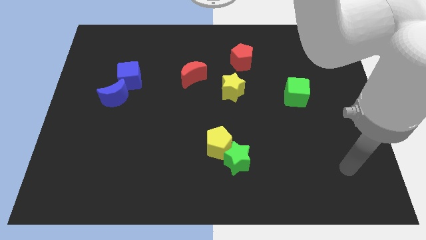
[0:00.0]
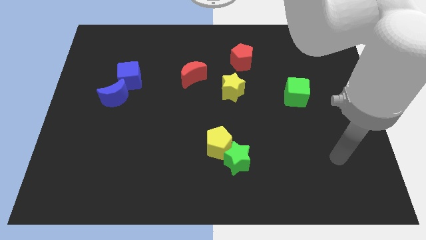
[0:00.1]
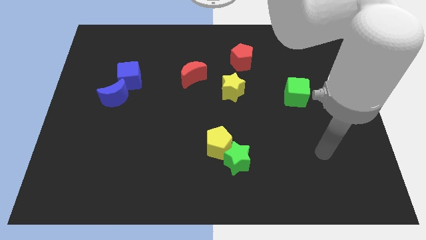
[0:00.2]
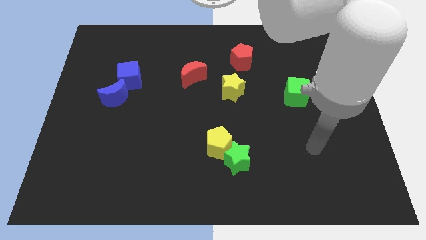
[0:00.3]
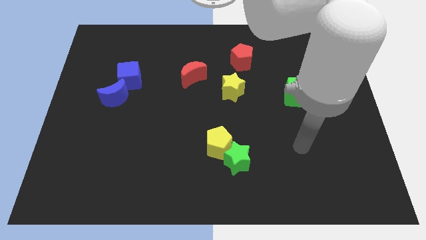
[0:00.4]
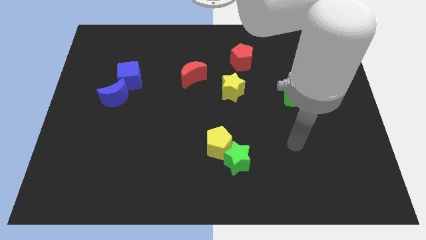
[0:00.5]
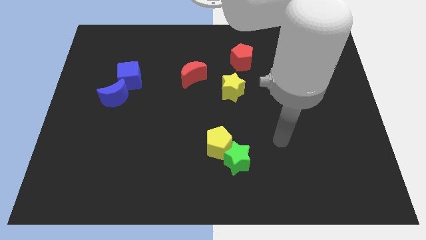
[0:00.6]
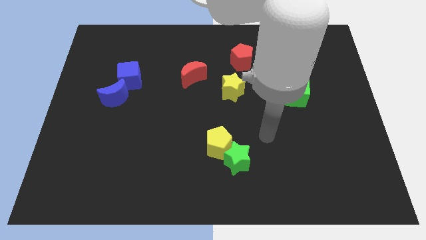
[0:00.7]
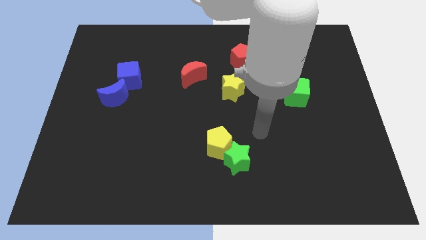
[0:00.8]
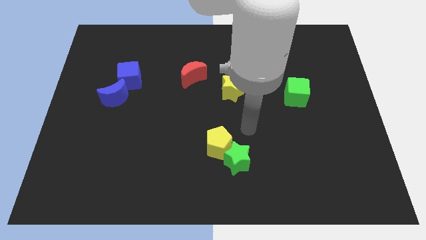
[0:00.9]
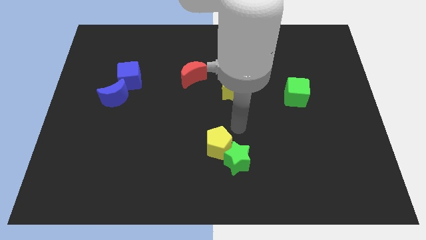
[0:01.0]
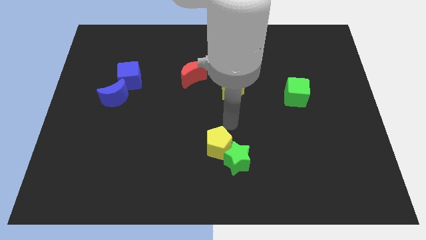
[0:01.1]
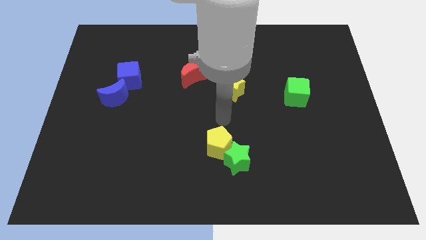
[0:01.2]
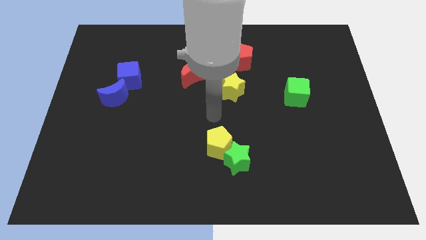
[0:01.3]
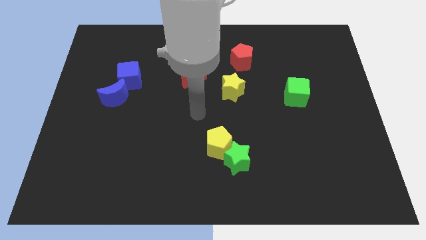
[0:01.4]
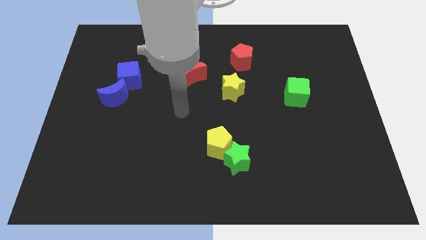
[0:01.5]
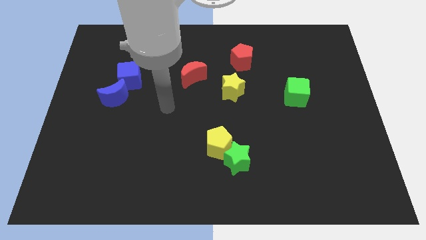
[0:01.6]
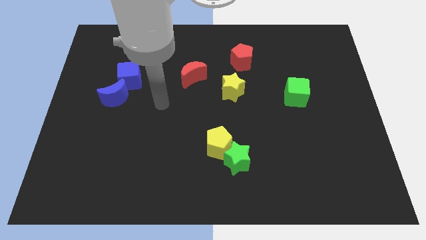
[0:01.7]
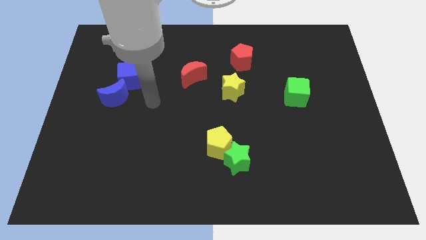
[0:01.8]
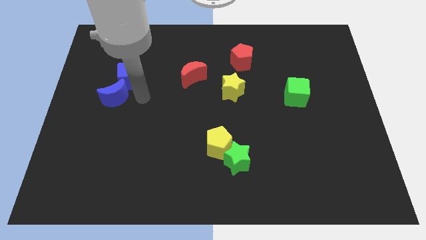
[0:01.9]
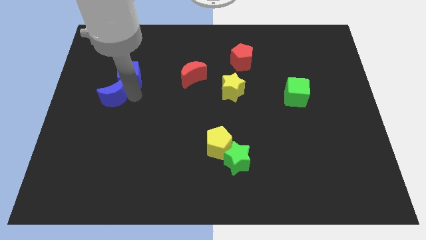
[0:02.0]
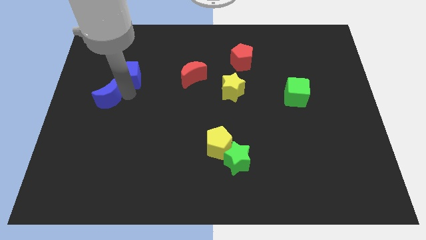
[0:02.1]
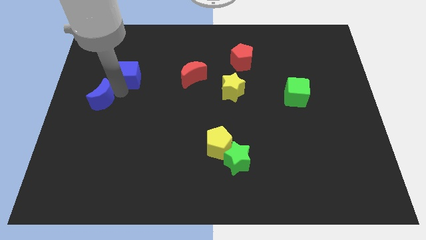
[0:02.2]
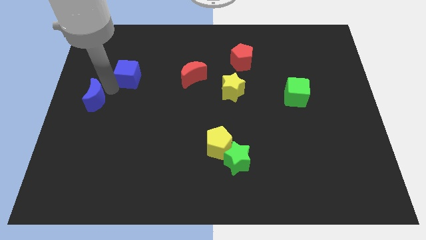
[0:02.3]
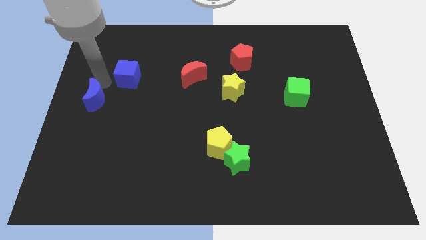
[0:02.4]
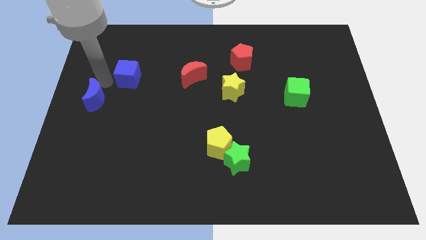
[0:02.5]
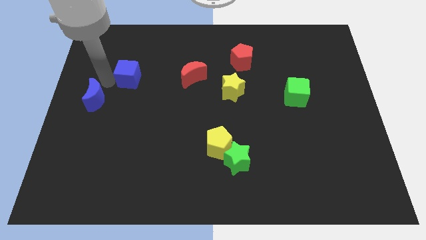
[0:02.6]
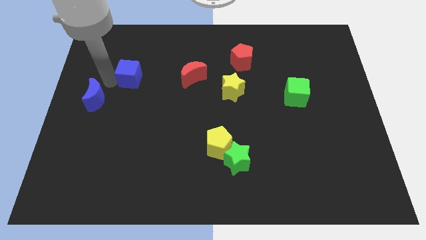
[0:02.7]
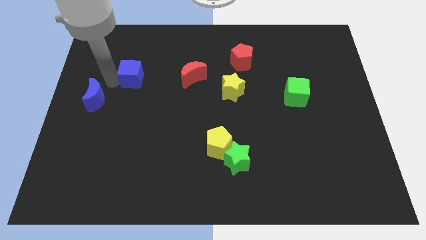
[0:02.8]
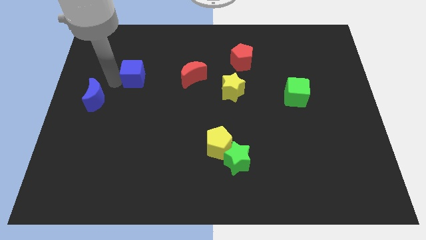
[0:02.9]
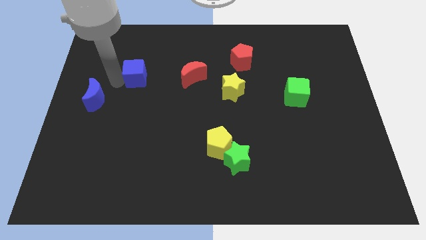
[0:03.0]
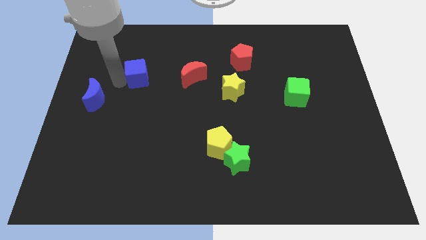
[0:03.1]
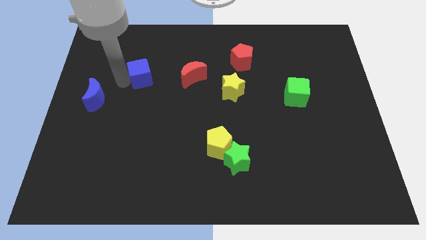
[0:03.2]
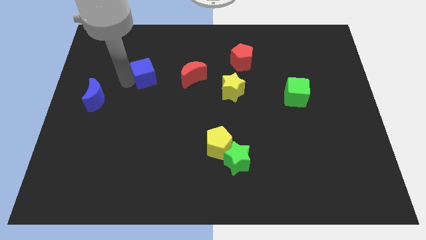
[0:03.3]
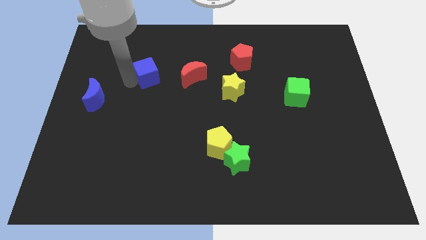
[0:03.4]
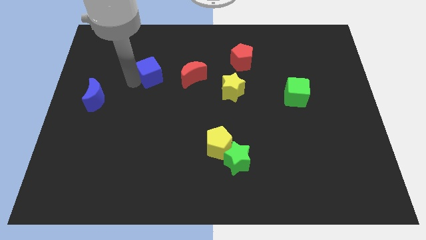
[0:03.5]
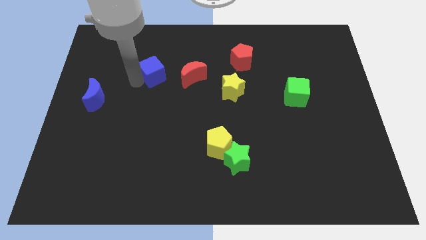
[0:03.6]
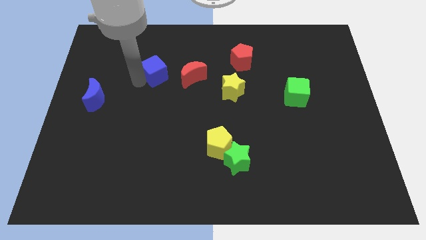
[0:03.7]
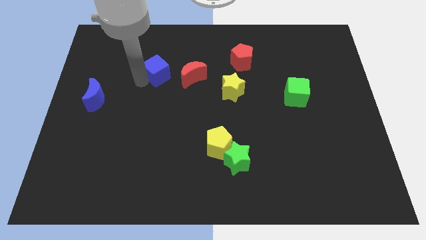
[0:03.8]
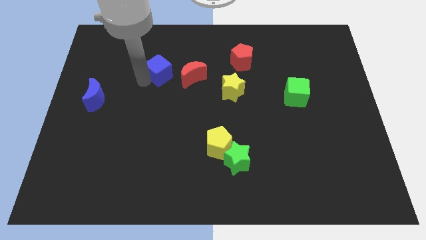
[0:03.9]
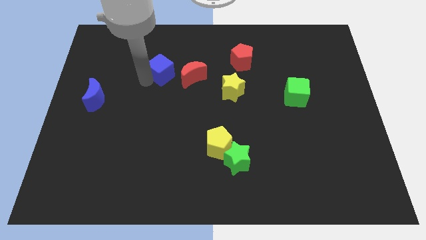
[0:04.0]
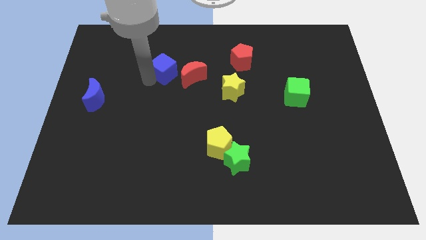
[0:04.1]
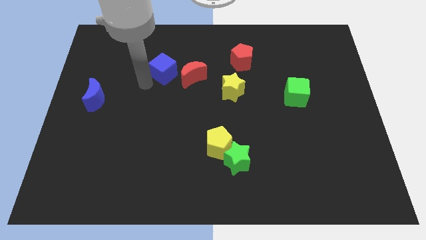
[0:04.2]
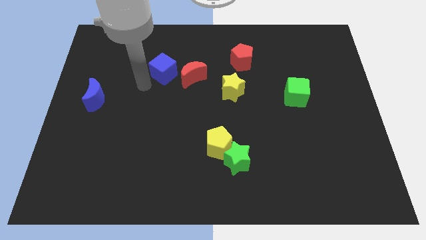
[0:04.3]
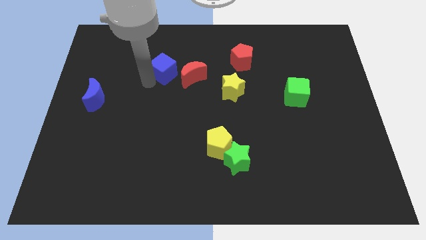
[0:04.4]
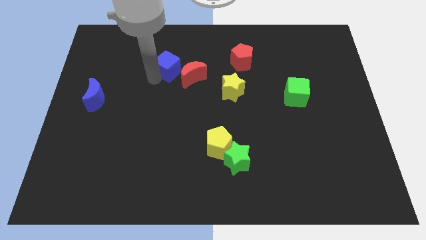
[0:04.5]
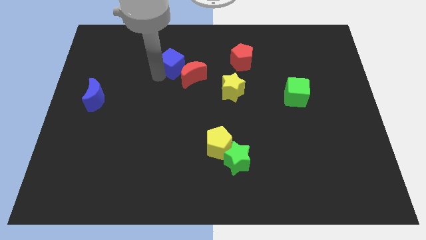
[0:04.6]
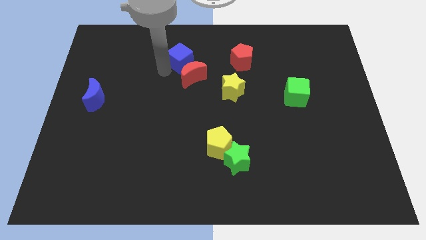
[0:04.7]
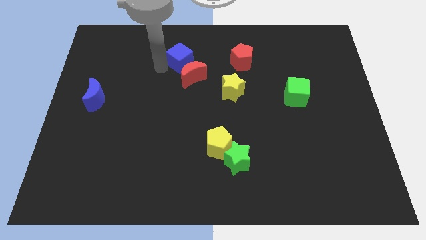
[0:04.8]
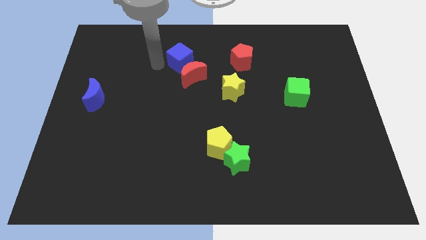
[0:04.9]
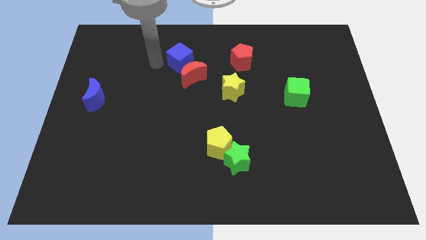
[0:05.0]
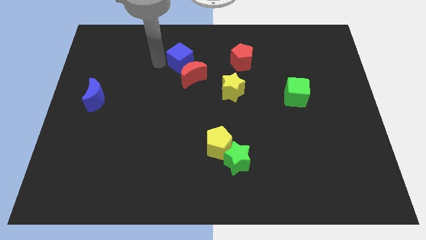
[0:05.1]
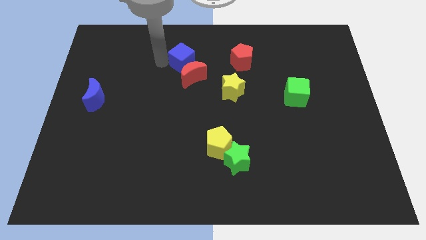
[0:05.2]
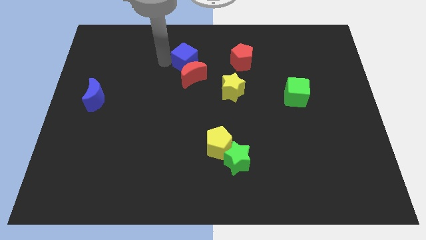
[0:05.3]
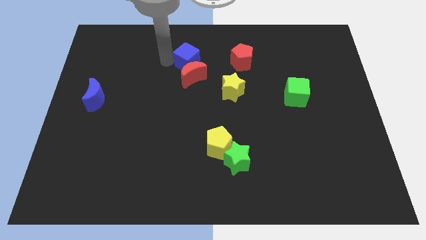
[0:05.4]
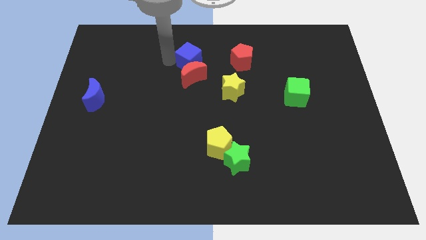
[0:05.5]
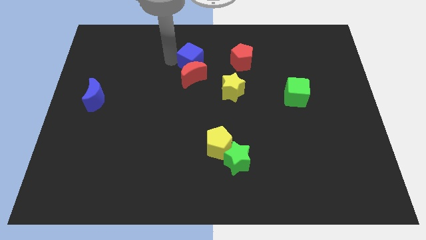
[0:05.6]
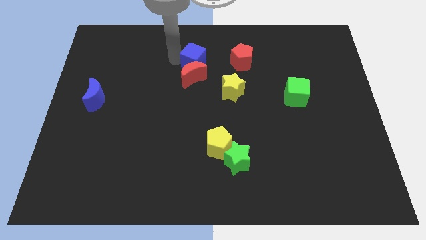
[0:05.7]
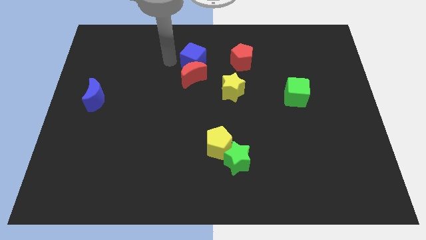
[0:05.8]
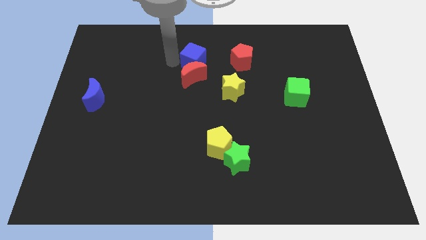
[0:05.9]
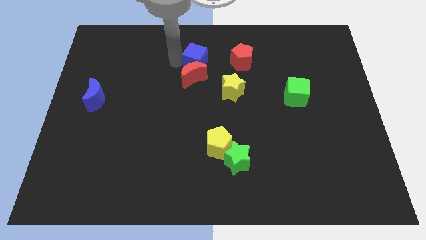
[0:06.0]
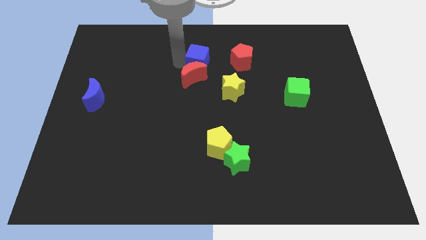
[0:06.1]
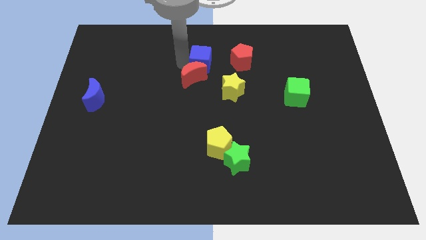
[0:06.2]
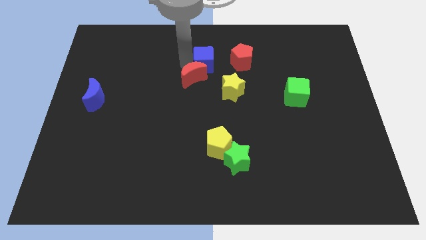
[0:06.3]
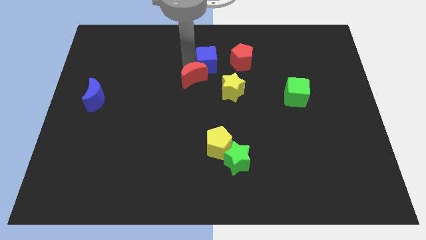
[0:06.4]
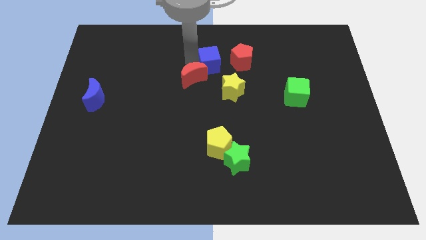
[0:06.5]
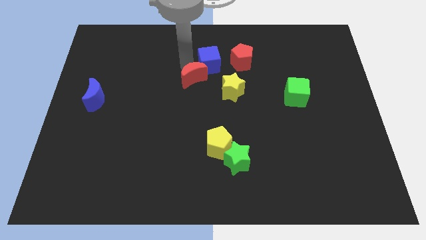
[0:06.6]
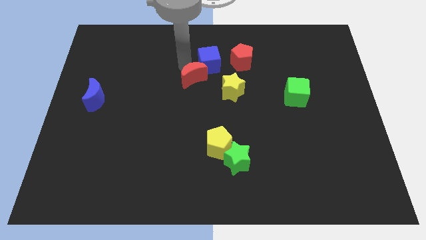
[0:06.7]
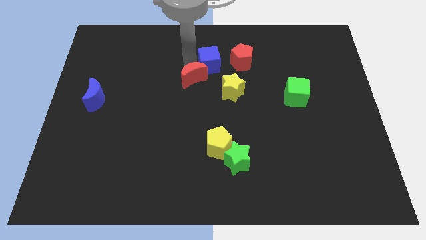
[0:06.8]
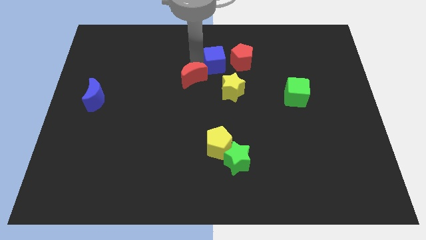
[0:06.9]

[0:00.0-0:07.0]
move the blue cube to the top of the yellow star

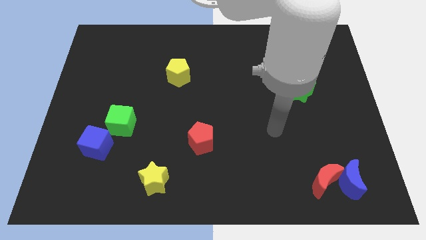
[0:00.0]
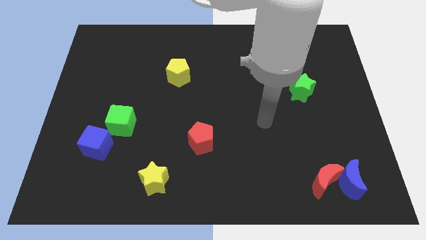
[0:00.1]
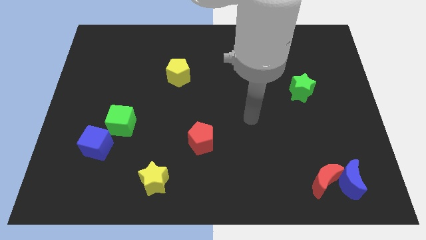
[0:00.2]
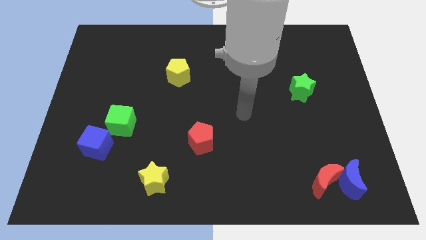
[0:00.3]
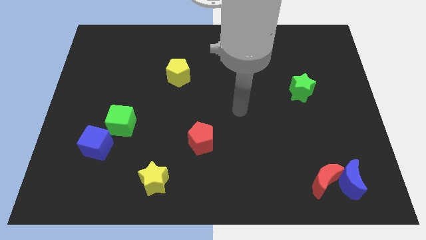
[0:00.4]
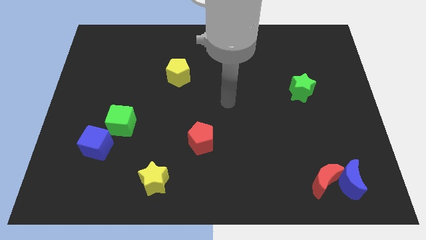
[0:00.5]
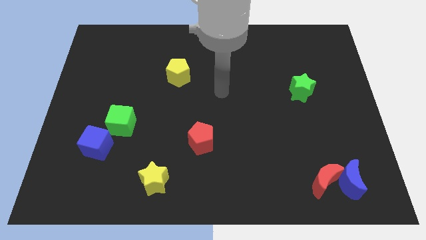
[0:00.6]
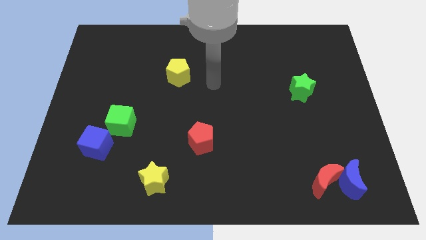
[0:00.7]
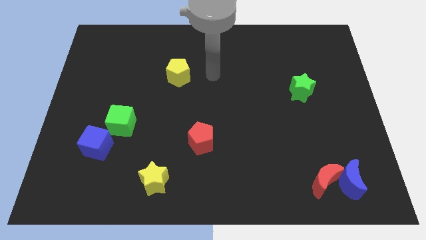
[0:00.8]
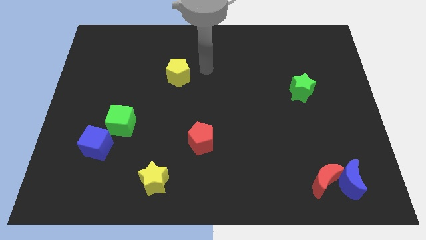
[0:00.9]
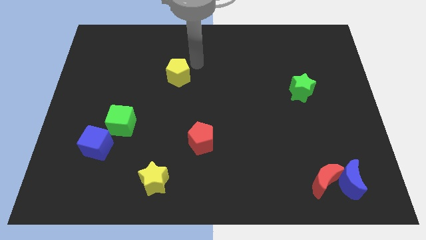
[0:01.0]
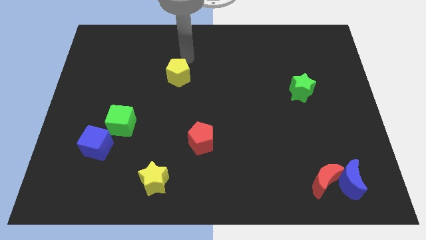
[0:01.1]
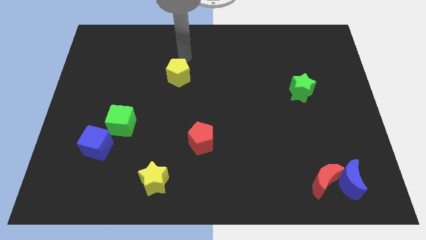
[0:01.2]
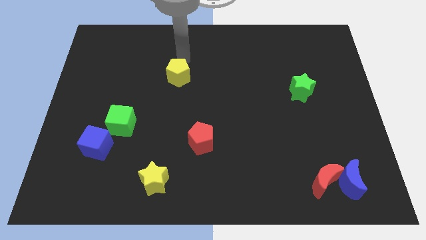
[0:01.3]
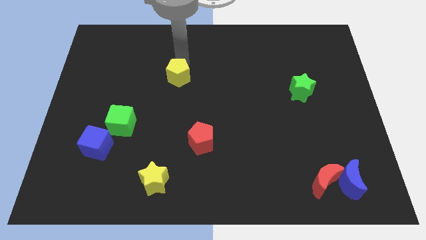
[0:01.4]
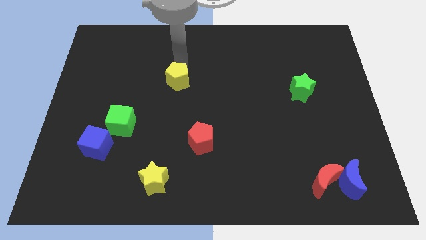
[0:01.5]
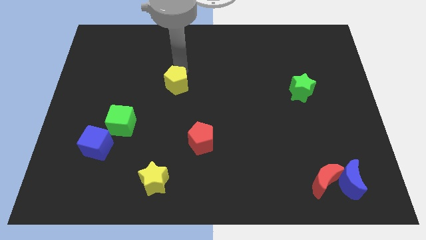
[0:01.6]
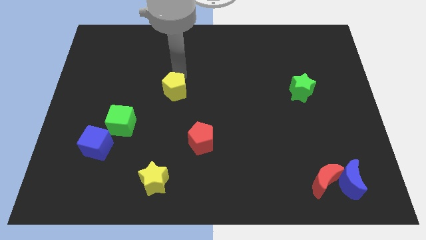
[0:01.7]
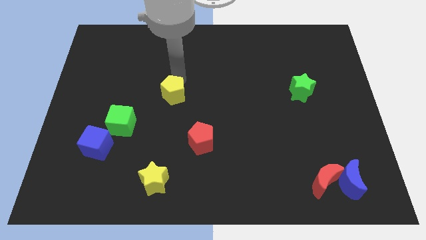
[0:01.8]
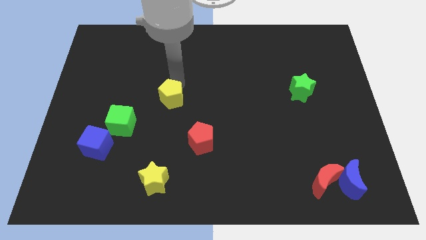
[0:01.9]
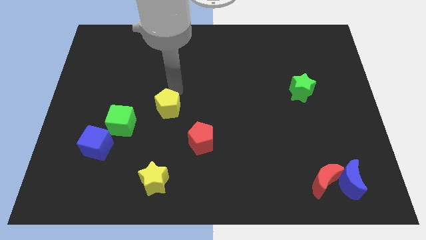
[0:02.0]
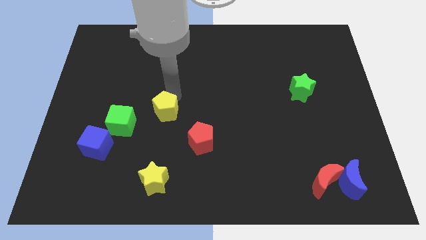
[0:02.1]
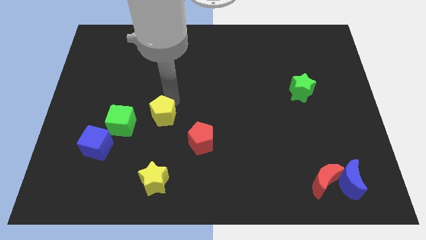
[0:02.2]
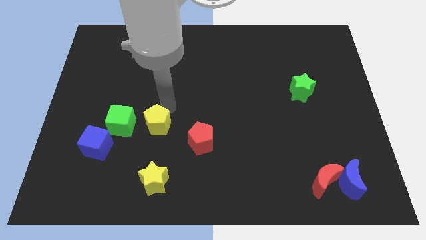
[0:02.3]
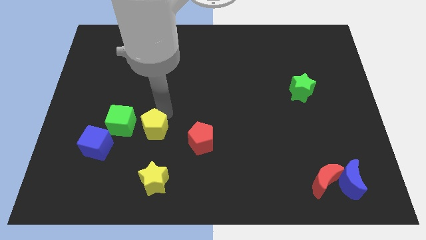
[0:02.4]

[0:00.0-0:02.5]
move the yellow pentagon diagonally down and to the right of the green cube
